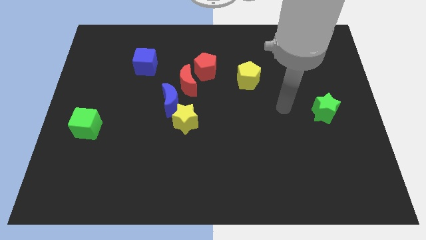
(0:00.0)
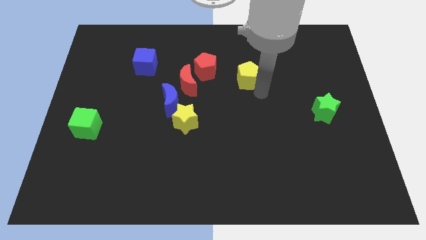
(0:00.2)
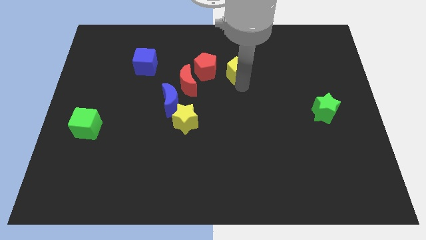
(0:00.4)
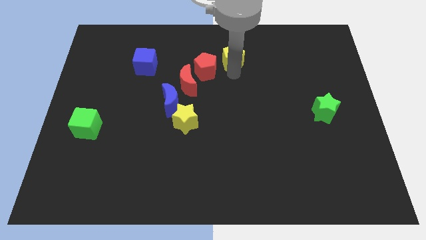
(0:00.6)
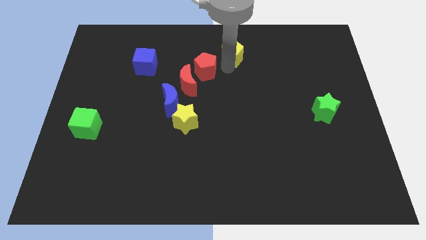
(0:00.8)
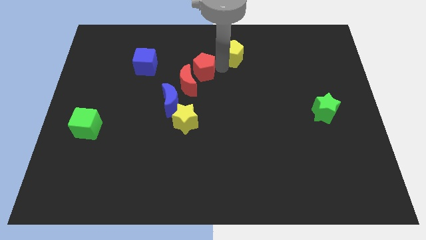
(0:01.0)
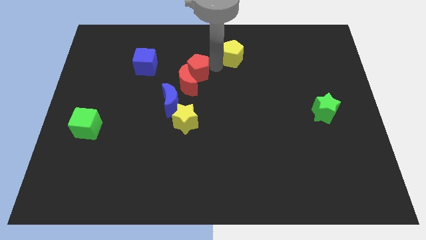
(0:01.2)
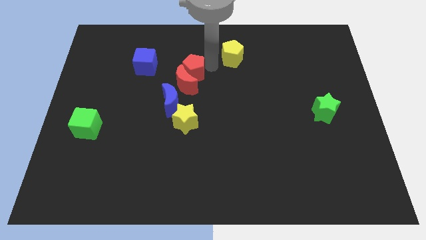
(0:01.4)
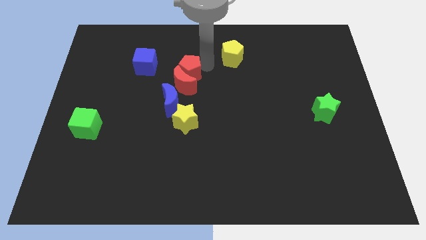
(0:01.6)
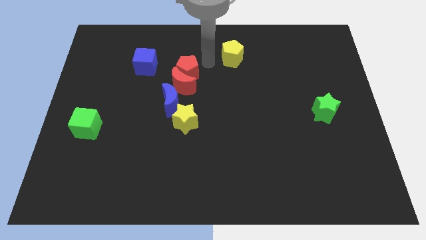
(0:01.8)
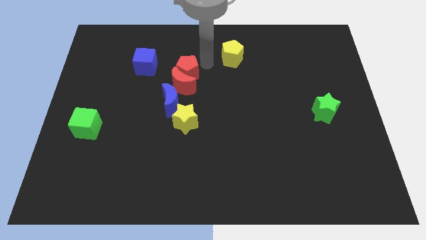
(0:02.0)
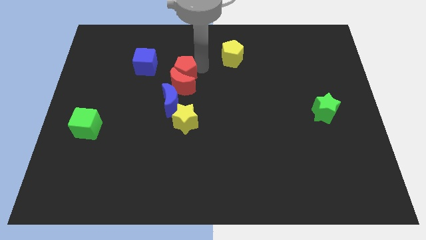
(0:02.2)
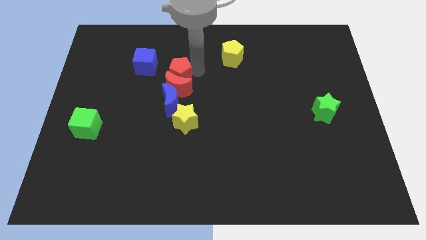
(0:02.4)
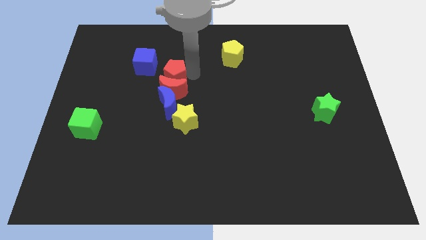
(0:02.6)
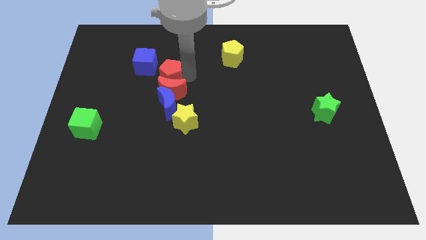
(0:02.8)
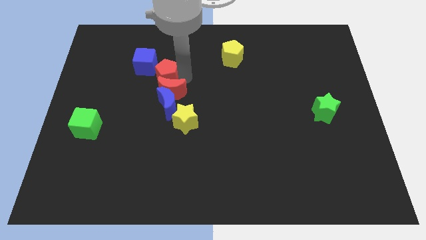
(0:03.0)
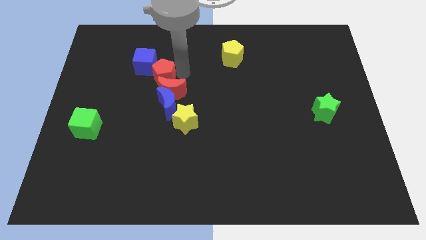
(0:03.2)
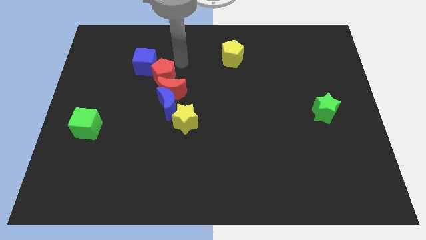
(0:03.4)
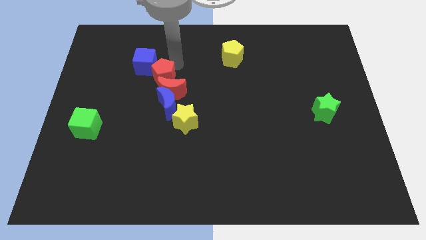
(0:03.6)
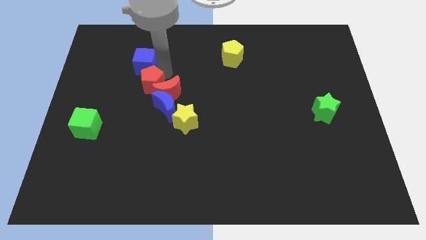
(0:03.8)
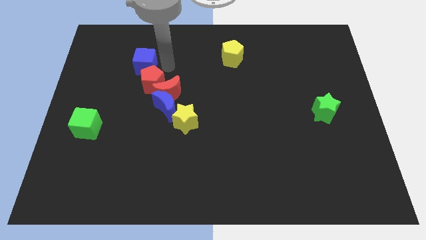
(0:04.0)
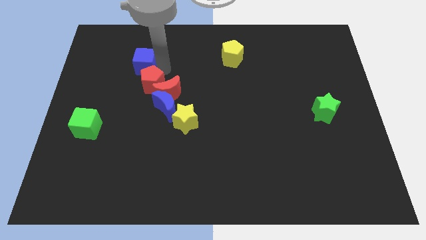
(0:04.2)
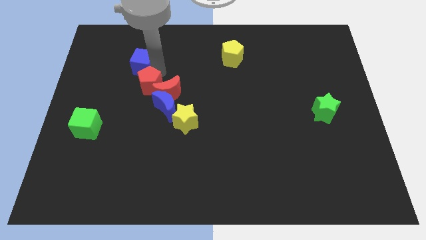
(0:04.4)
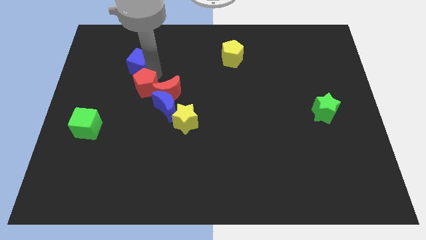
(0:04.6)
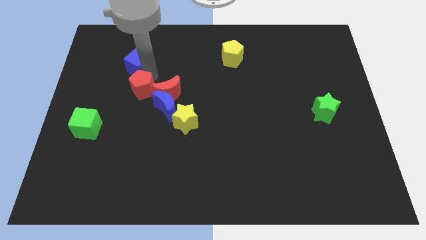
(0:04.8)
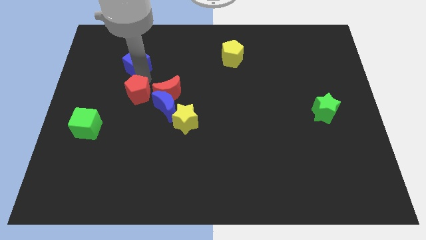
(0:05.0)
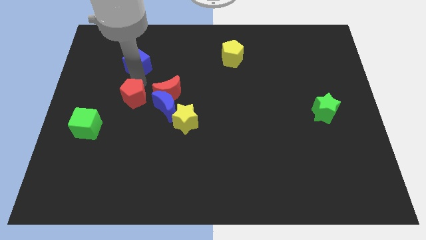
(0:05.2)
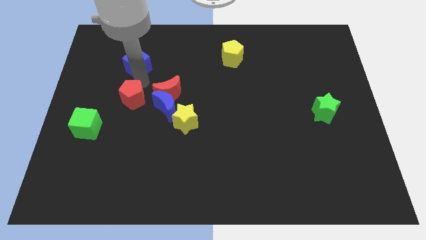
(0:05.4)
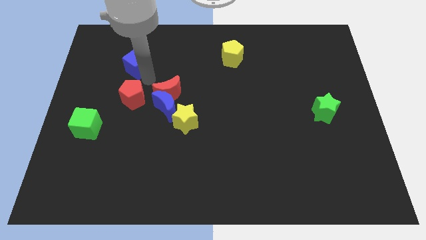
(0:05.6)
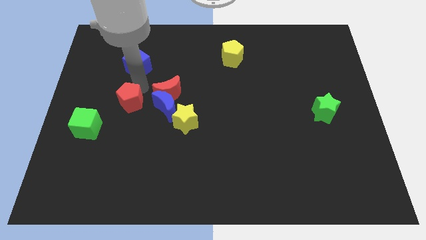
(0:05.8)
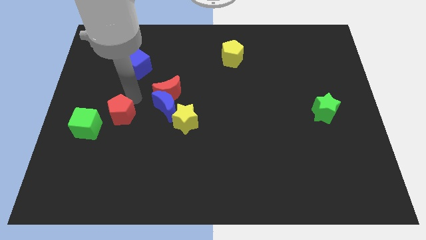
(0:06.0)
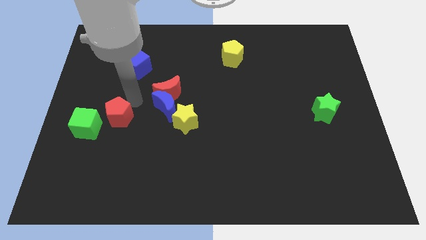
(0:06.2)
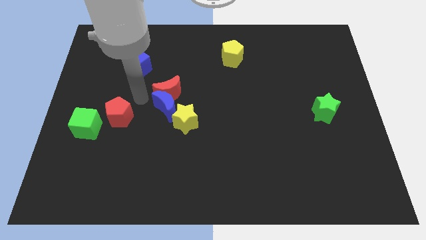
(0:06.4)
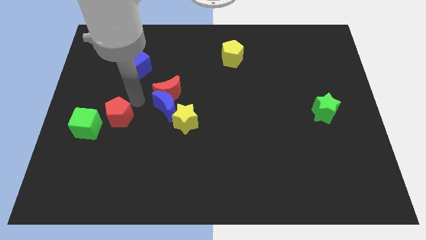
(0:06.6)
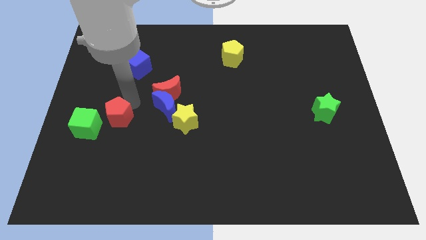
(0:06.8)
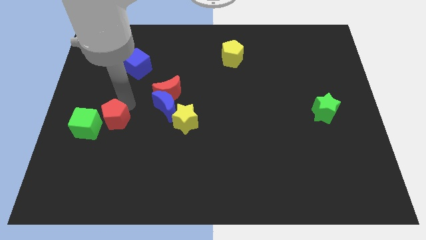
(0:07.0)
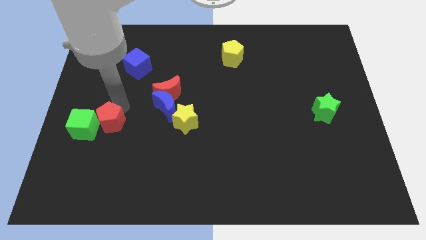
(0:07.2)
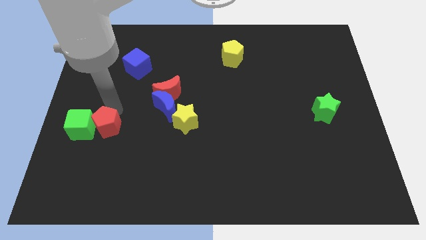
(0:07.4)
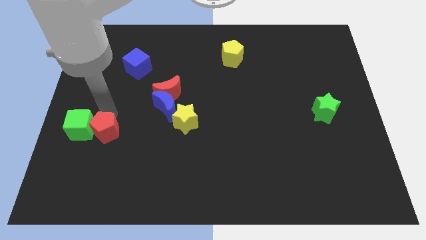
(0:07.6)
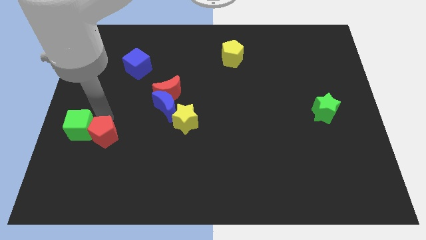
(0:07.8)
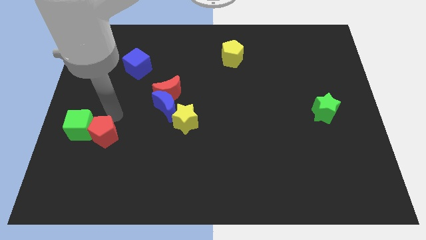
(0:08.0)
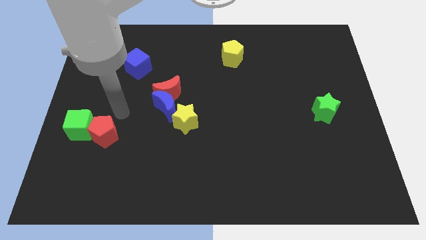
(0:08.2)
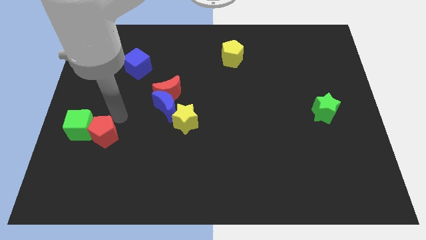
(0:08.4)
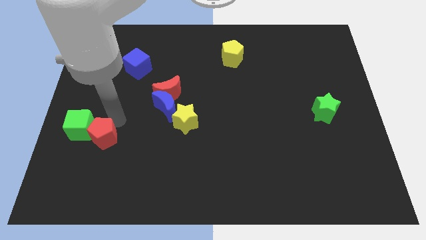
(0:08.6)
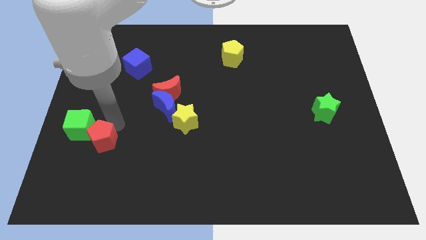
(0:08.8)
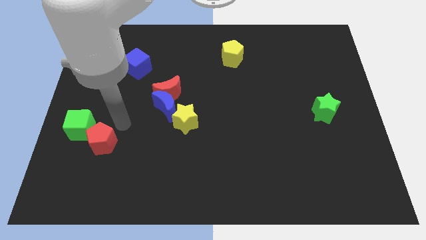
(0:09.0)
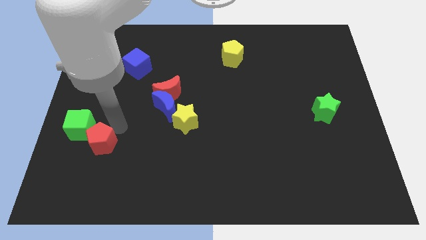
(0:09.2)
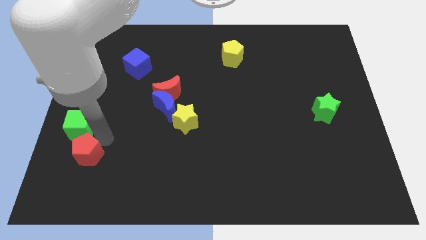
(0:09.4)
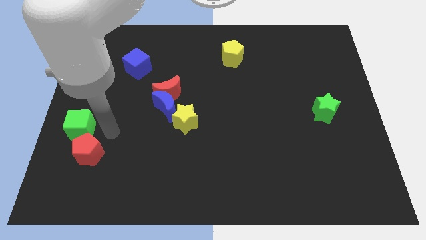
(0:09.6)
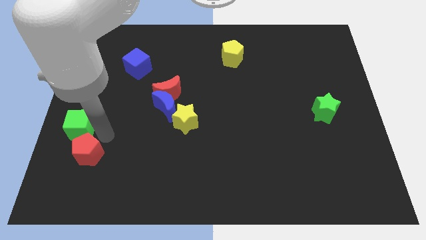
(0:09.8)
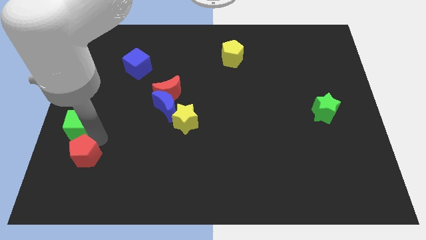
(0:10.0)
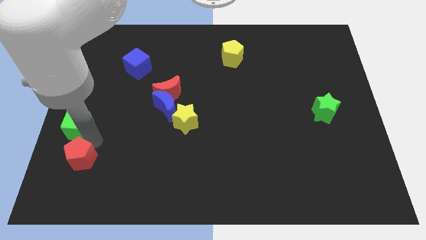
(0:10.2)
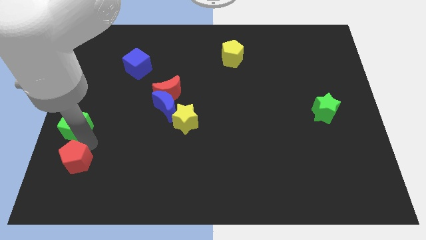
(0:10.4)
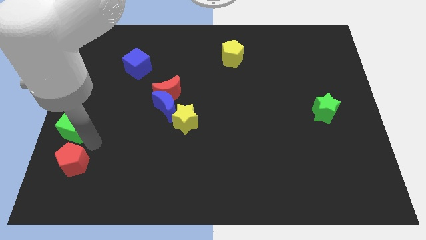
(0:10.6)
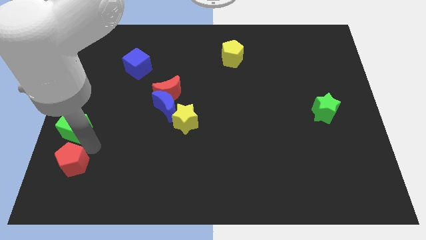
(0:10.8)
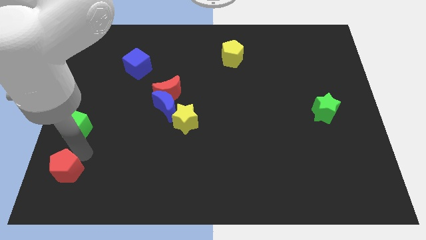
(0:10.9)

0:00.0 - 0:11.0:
slide the red pentagon to the bottom left

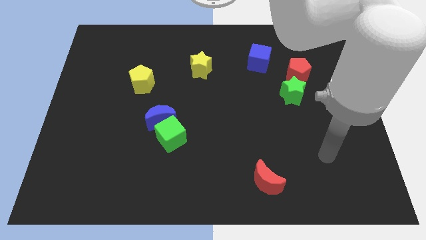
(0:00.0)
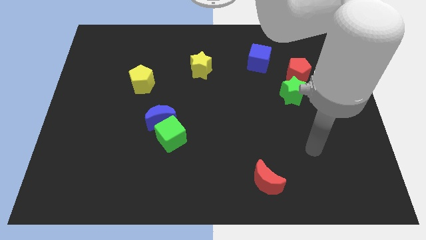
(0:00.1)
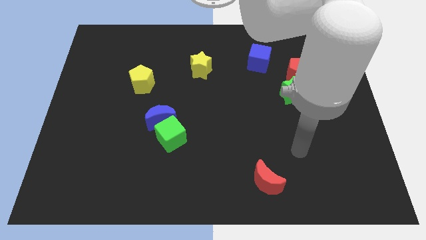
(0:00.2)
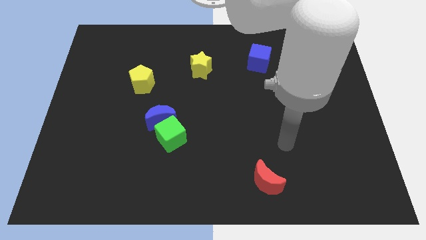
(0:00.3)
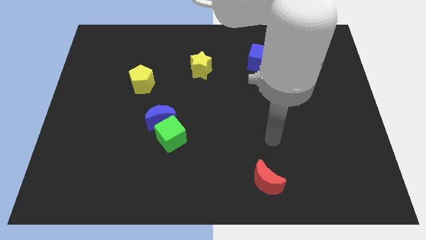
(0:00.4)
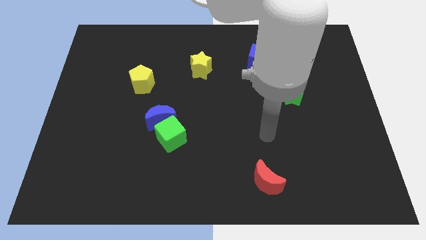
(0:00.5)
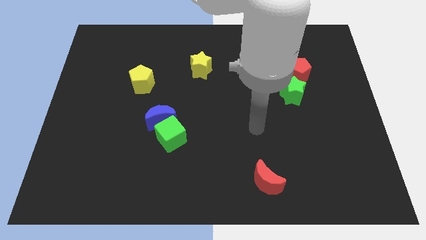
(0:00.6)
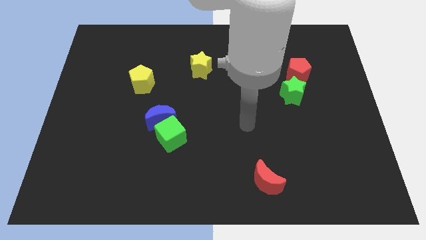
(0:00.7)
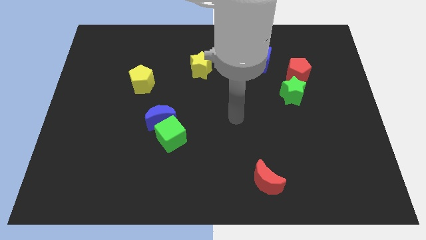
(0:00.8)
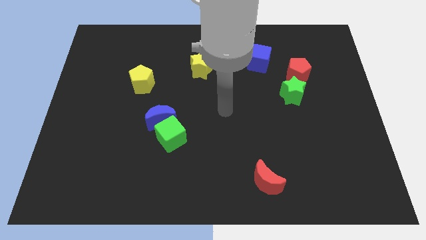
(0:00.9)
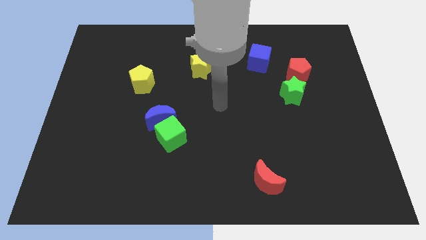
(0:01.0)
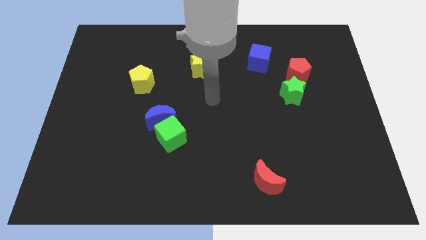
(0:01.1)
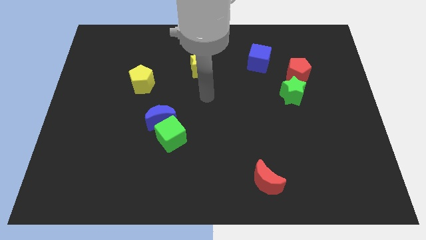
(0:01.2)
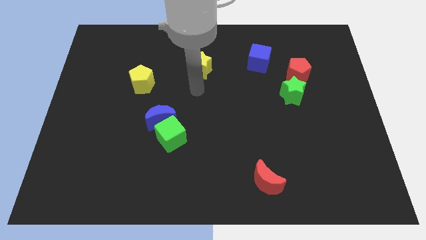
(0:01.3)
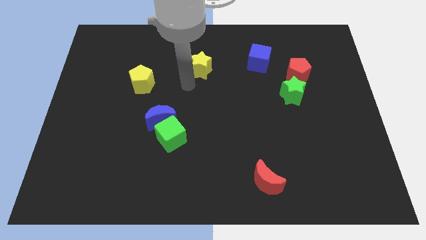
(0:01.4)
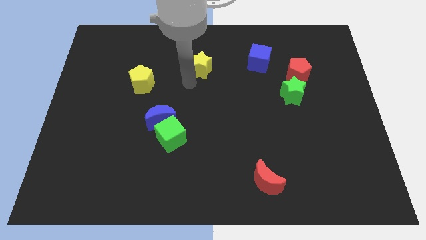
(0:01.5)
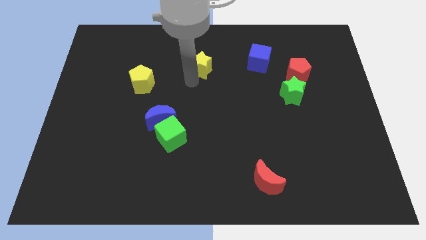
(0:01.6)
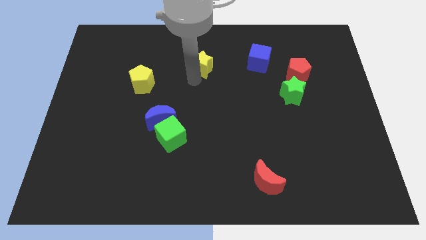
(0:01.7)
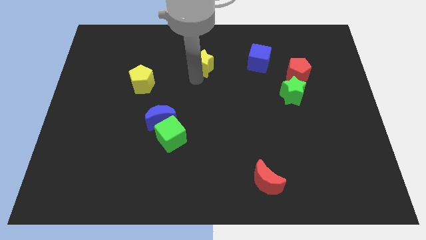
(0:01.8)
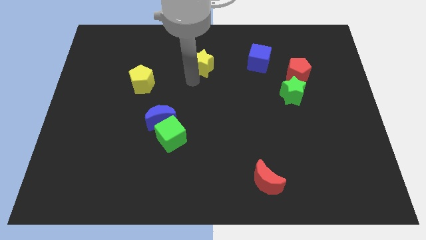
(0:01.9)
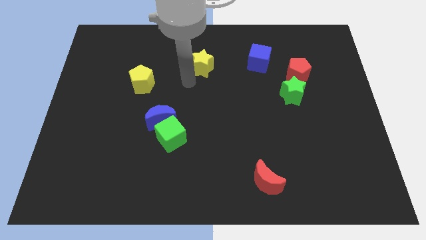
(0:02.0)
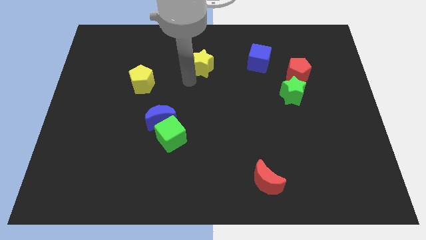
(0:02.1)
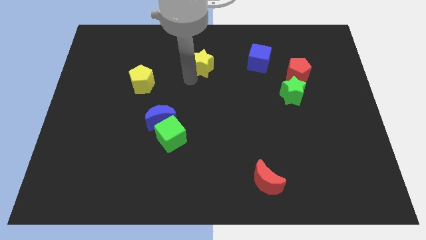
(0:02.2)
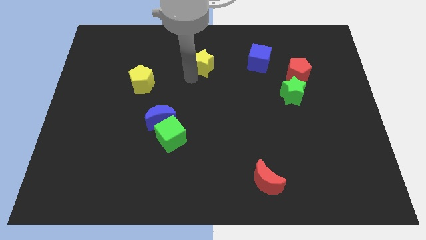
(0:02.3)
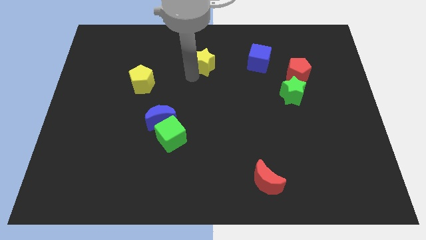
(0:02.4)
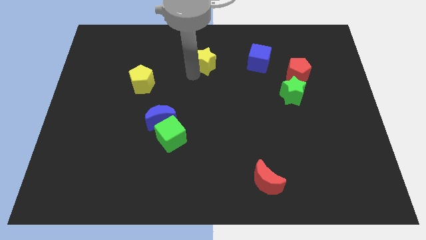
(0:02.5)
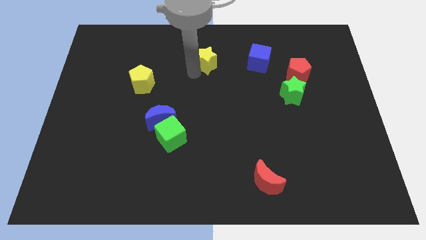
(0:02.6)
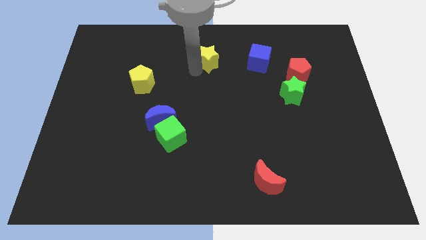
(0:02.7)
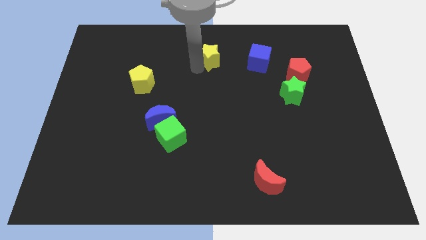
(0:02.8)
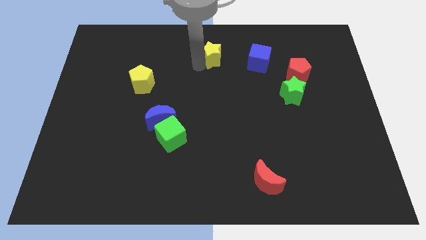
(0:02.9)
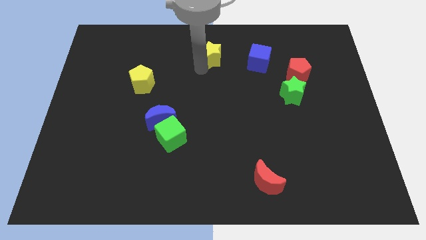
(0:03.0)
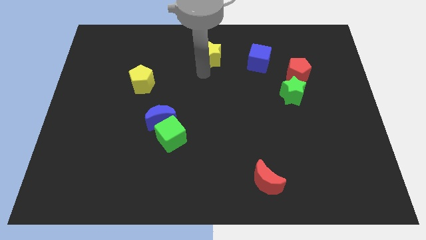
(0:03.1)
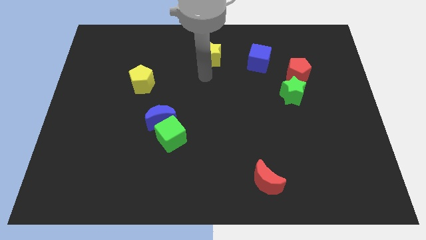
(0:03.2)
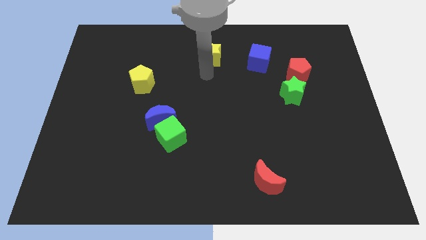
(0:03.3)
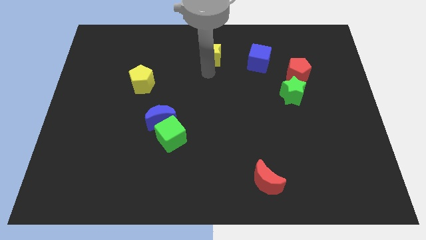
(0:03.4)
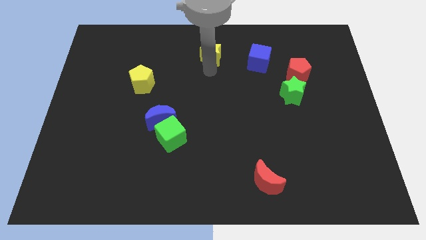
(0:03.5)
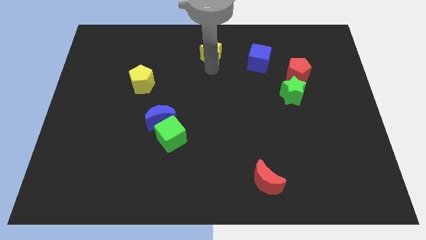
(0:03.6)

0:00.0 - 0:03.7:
push the yellow star to the top side
